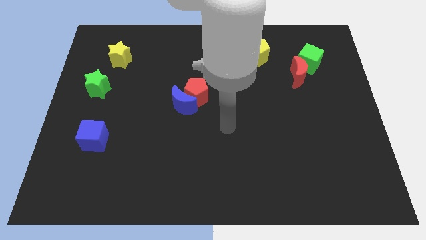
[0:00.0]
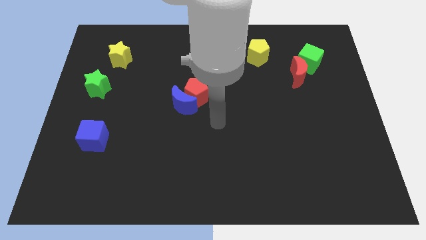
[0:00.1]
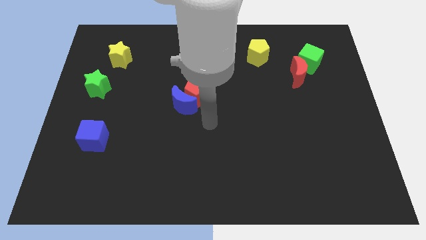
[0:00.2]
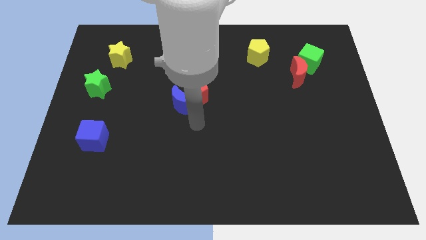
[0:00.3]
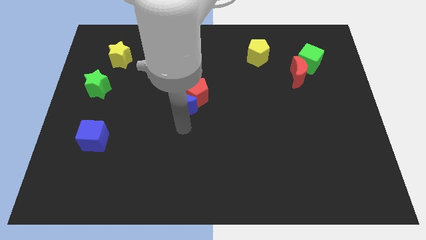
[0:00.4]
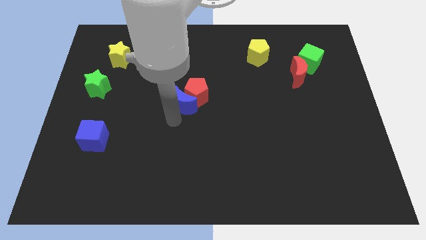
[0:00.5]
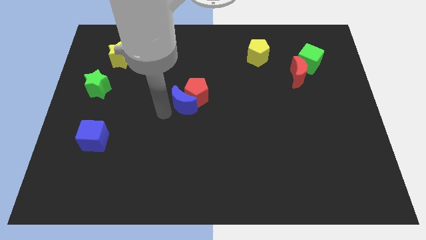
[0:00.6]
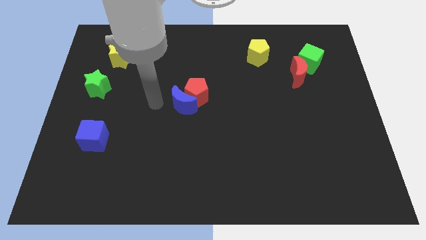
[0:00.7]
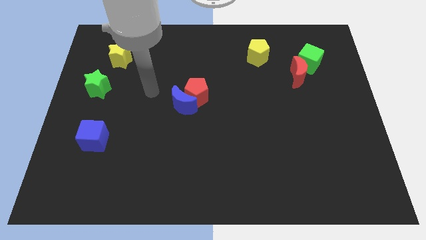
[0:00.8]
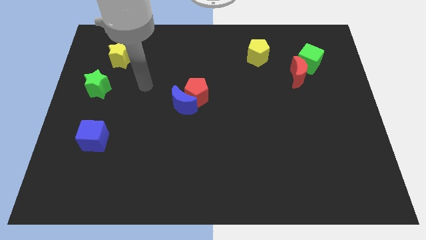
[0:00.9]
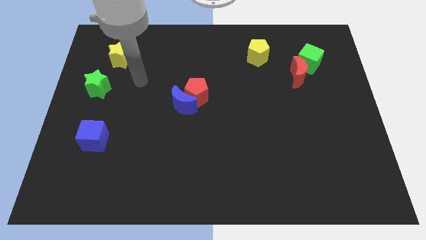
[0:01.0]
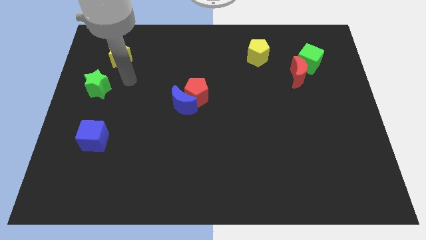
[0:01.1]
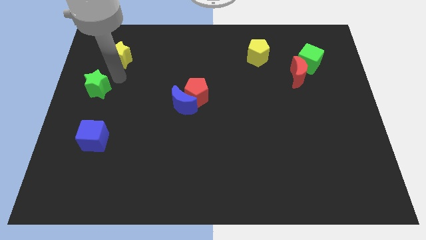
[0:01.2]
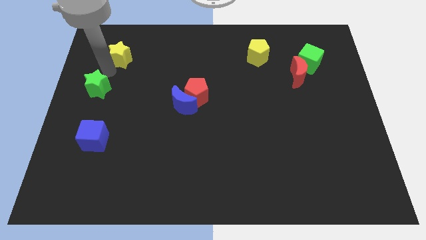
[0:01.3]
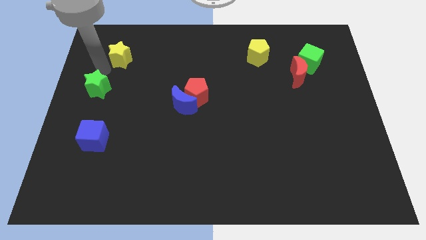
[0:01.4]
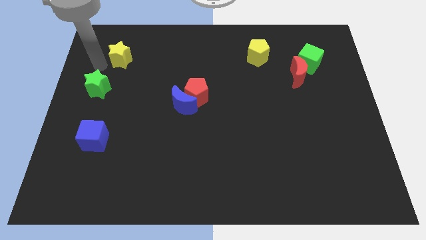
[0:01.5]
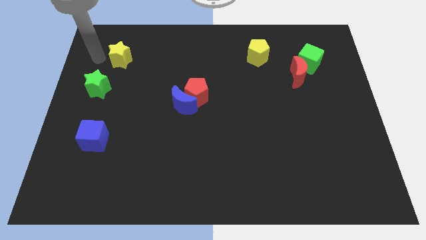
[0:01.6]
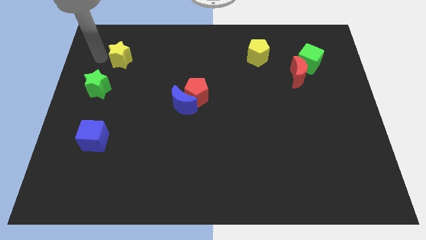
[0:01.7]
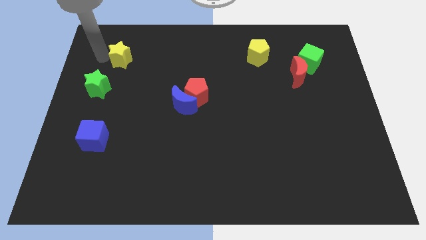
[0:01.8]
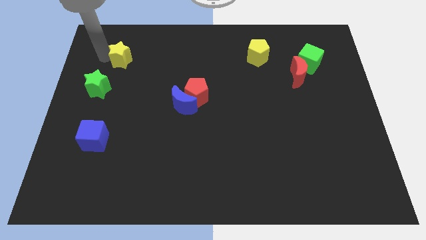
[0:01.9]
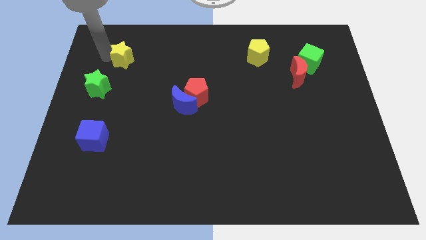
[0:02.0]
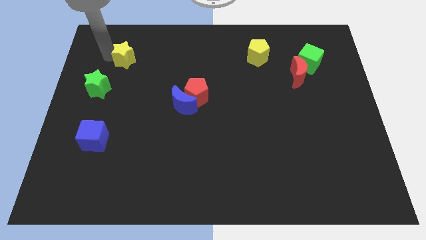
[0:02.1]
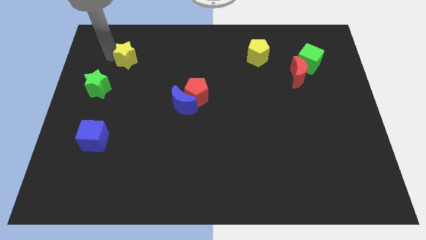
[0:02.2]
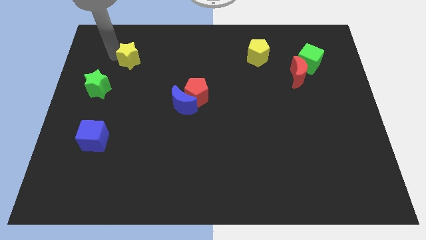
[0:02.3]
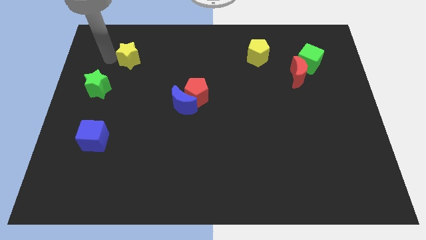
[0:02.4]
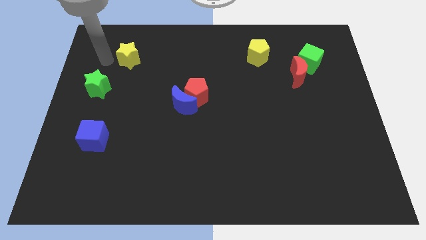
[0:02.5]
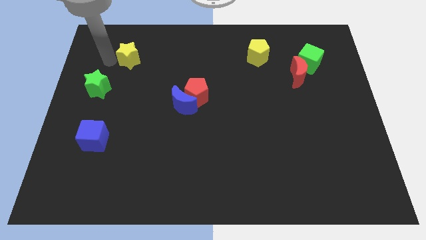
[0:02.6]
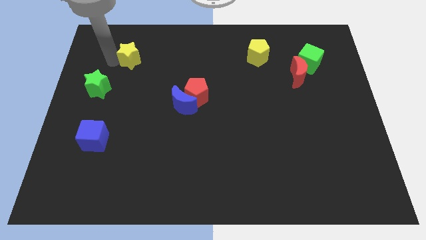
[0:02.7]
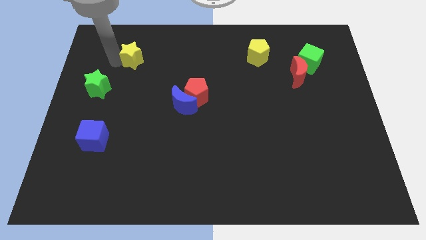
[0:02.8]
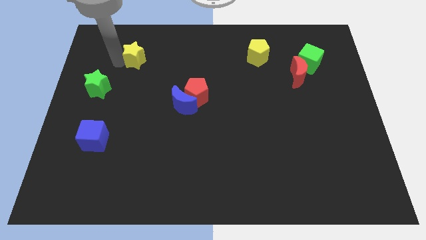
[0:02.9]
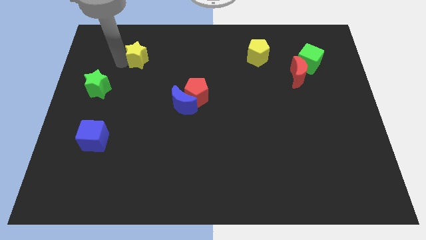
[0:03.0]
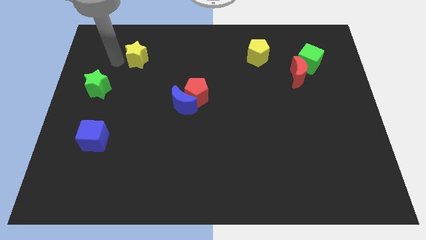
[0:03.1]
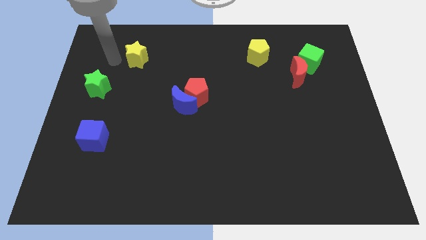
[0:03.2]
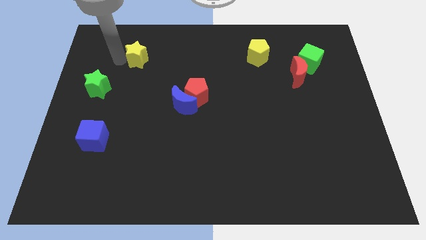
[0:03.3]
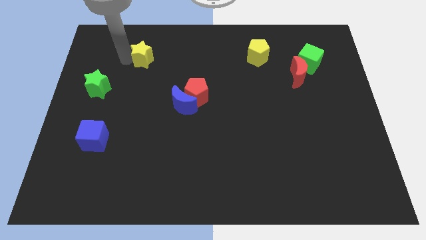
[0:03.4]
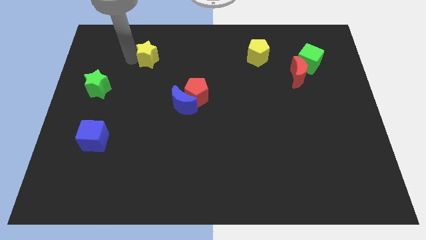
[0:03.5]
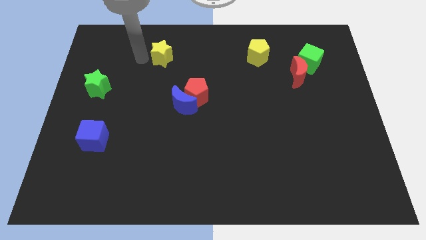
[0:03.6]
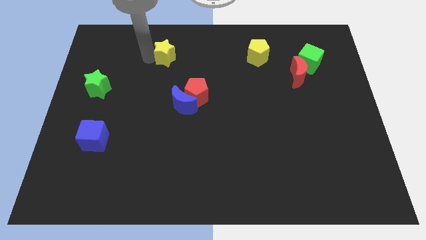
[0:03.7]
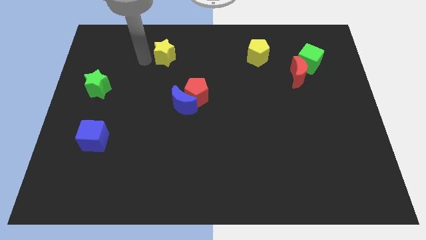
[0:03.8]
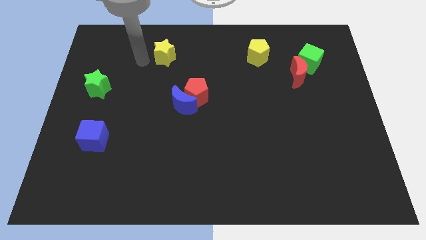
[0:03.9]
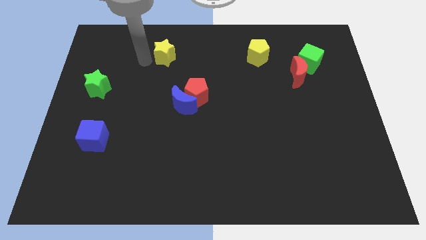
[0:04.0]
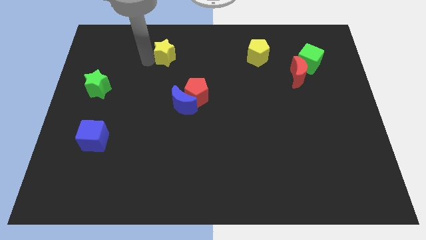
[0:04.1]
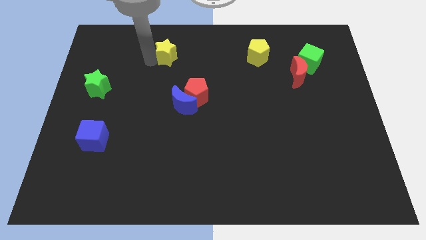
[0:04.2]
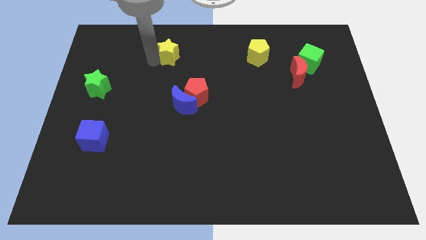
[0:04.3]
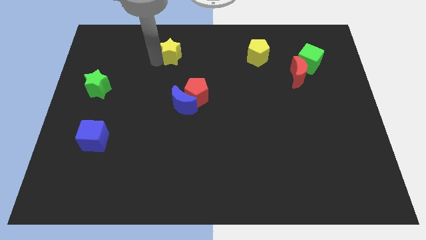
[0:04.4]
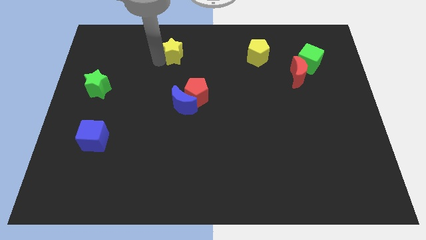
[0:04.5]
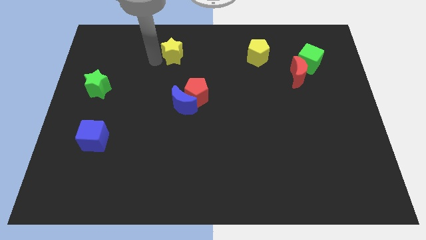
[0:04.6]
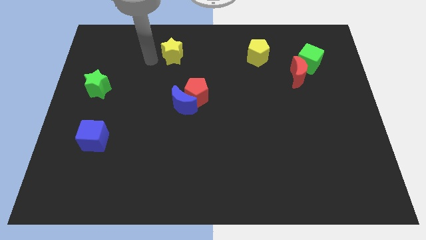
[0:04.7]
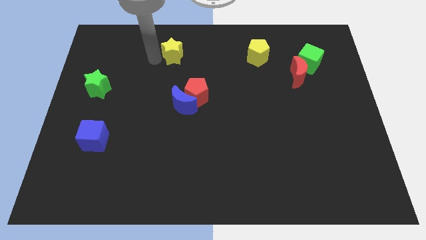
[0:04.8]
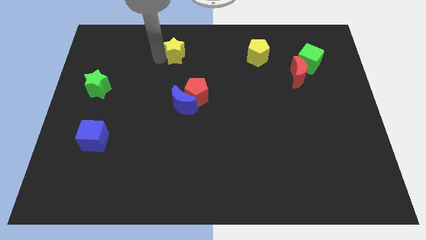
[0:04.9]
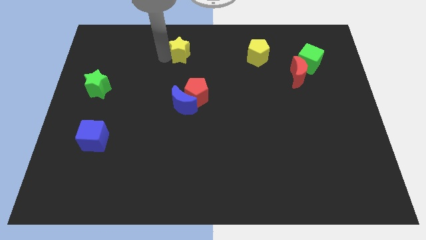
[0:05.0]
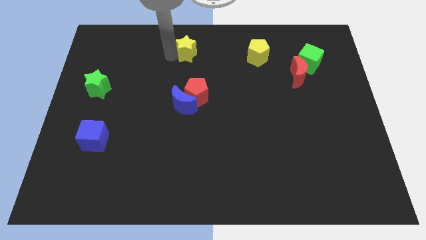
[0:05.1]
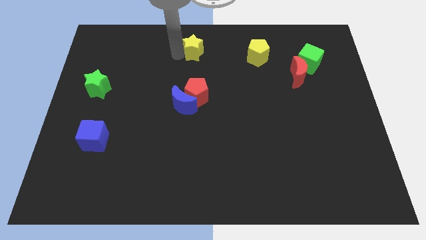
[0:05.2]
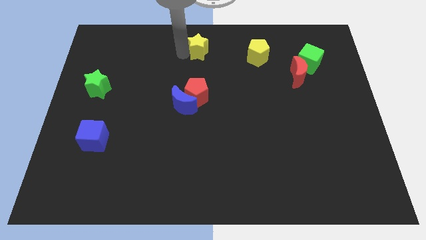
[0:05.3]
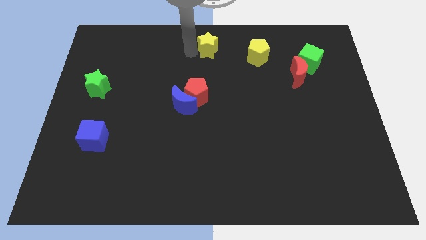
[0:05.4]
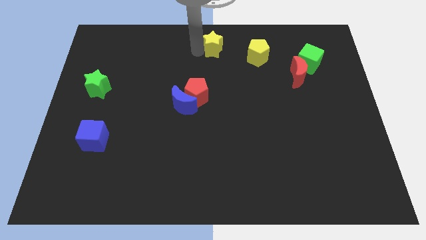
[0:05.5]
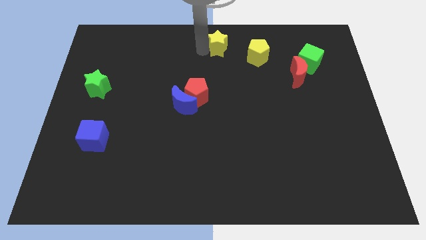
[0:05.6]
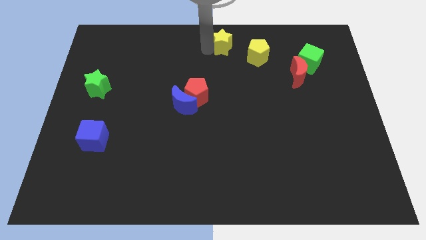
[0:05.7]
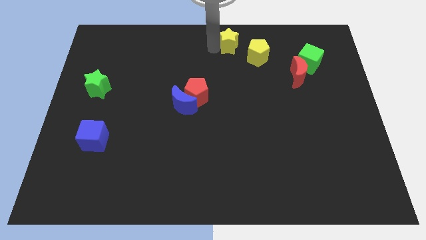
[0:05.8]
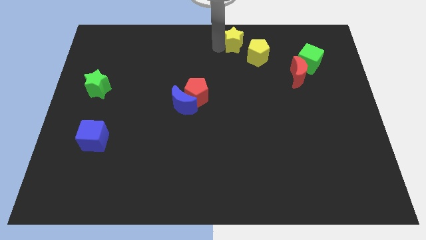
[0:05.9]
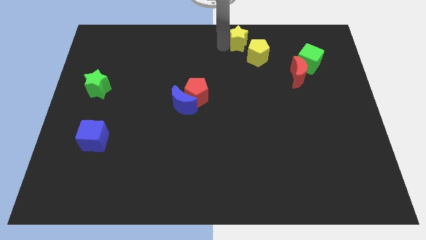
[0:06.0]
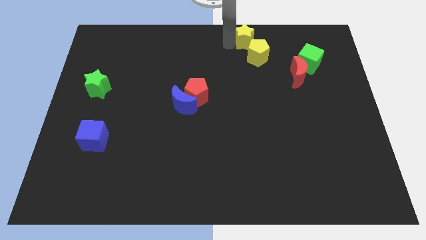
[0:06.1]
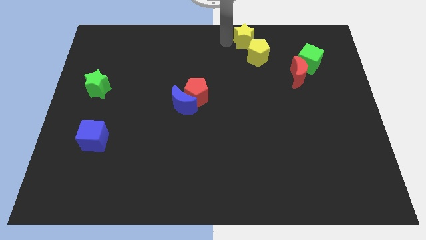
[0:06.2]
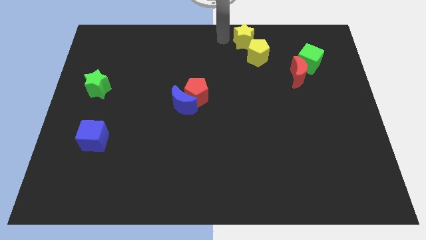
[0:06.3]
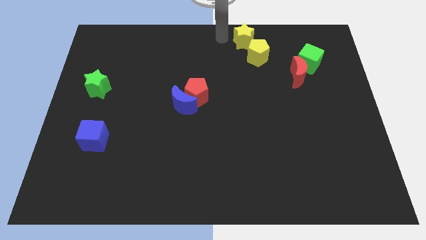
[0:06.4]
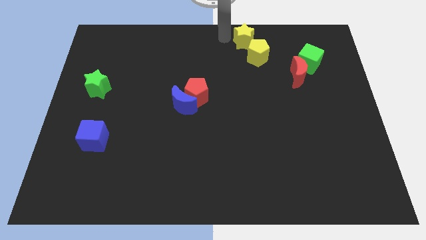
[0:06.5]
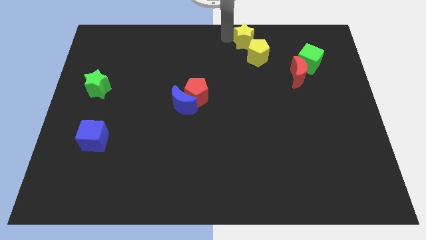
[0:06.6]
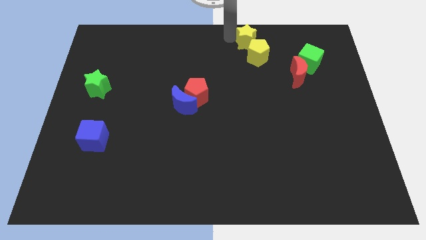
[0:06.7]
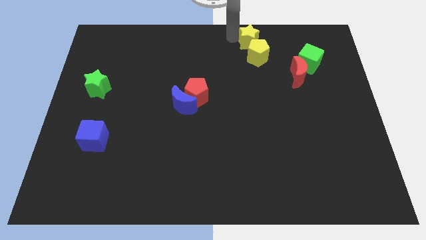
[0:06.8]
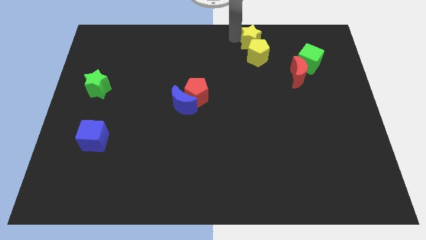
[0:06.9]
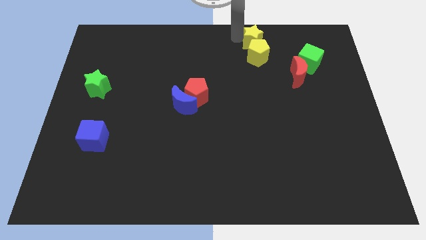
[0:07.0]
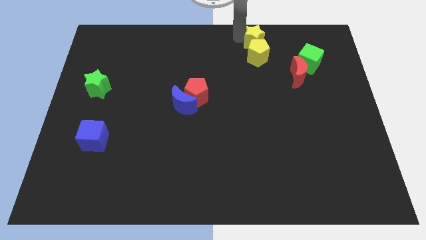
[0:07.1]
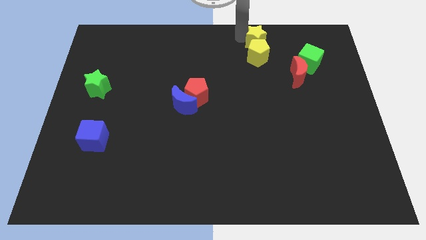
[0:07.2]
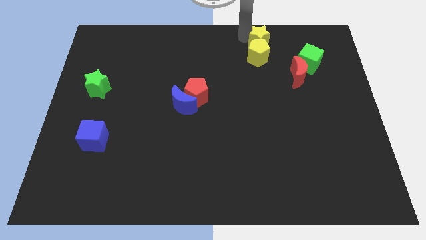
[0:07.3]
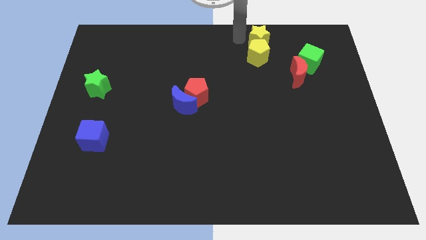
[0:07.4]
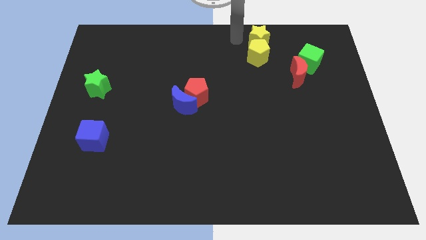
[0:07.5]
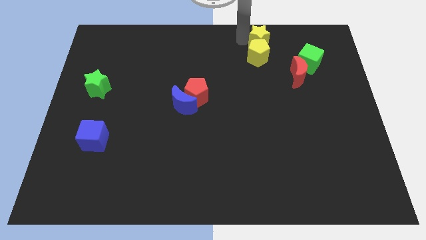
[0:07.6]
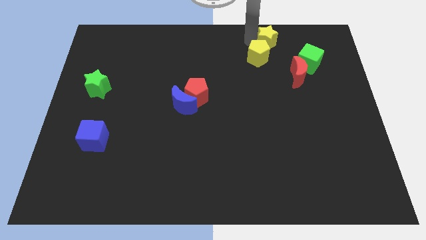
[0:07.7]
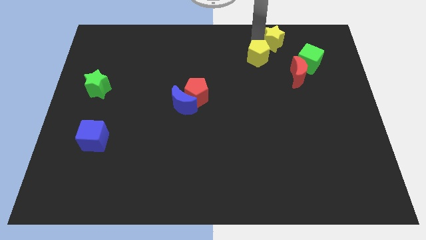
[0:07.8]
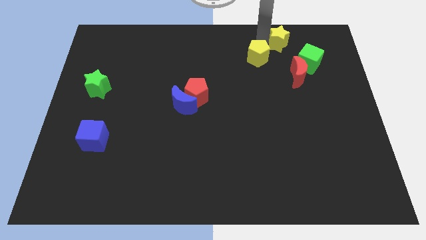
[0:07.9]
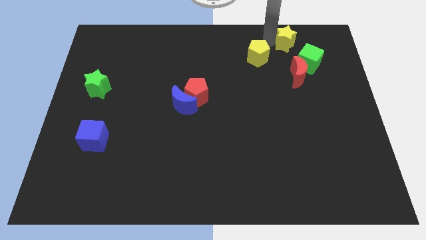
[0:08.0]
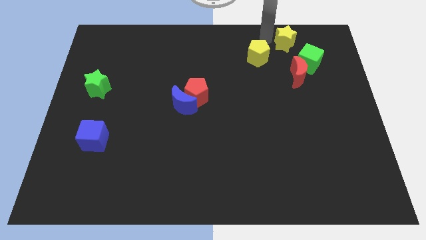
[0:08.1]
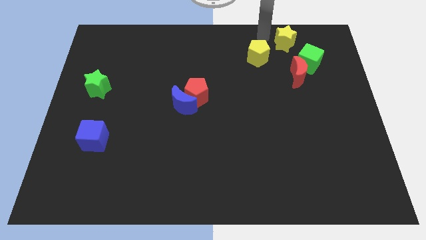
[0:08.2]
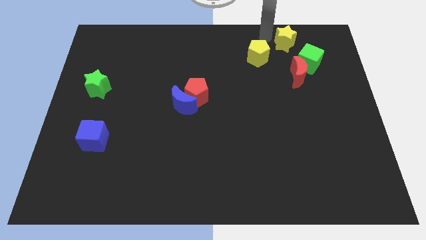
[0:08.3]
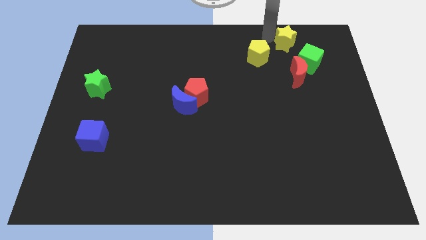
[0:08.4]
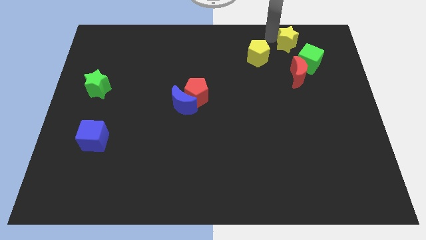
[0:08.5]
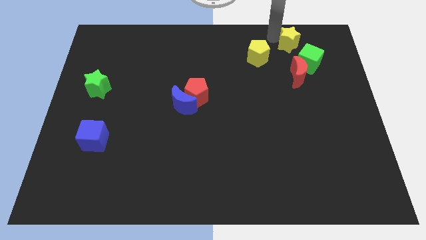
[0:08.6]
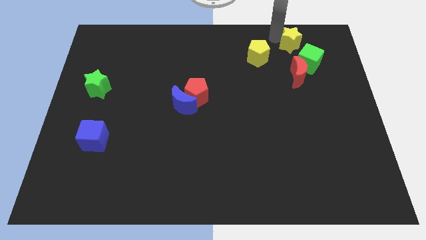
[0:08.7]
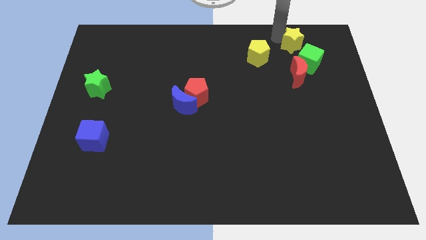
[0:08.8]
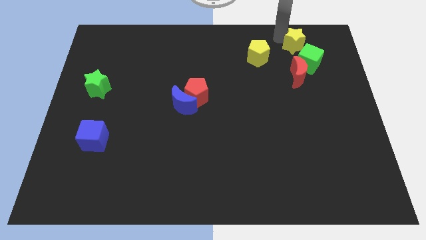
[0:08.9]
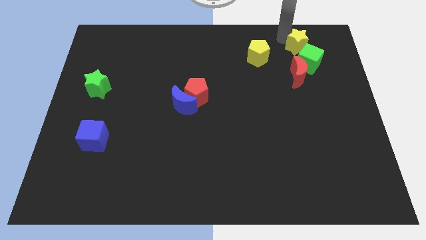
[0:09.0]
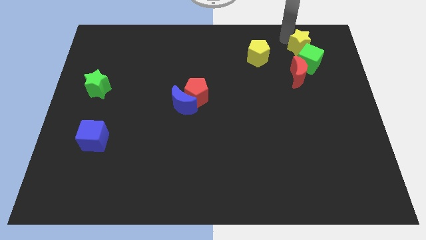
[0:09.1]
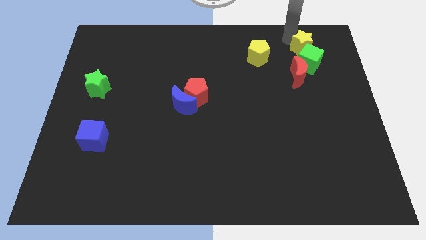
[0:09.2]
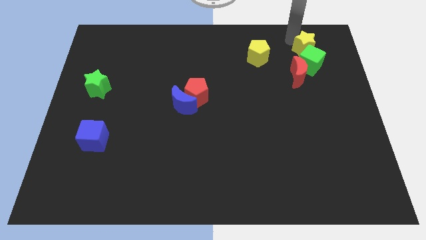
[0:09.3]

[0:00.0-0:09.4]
push the yellow star to the top right side of the red moon
